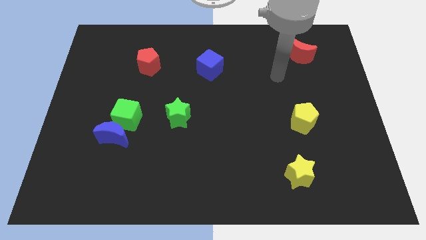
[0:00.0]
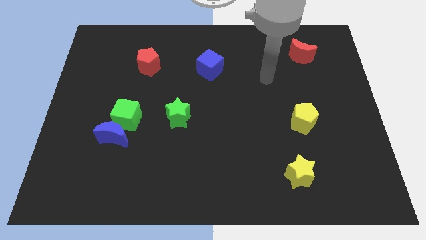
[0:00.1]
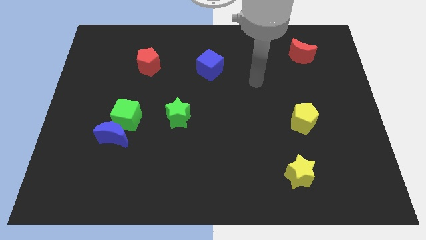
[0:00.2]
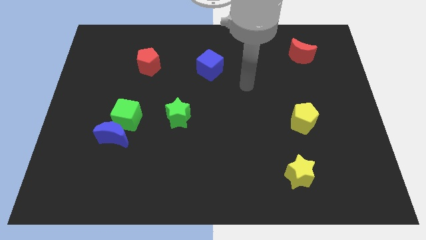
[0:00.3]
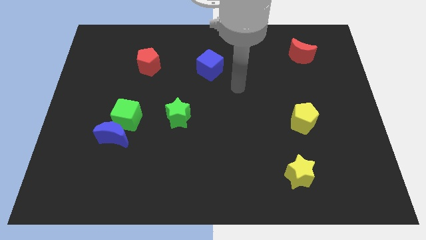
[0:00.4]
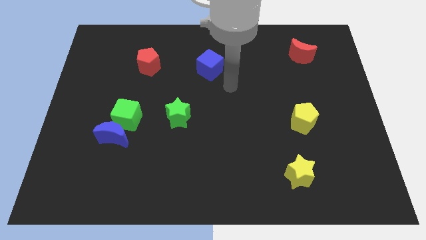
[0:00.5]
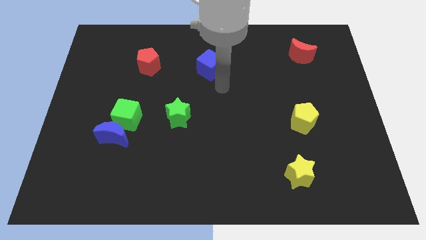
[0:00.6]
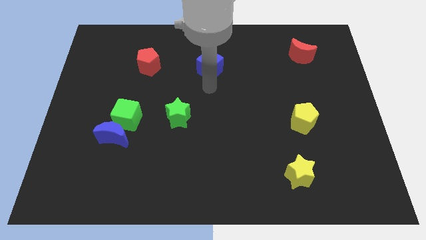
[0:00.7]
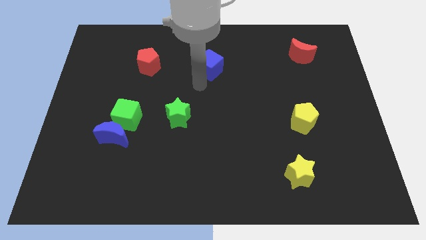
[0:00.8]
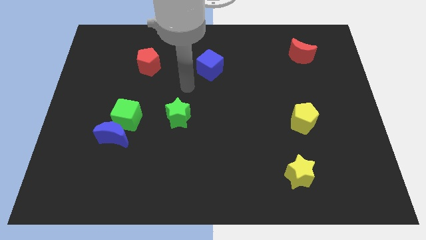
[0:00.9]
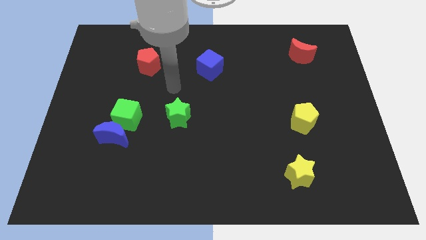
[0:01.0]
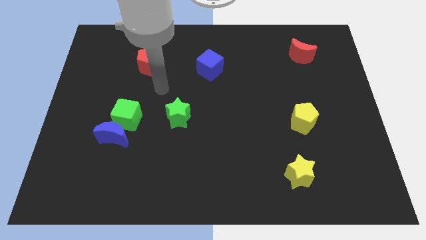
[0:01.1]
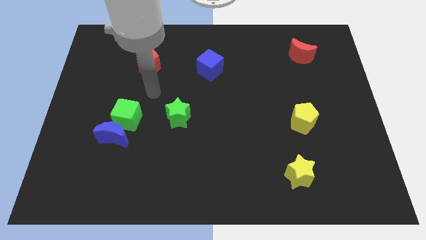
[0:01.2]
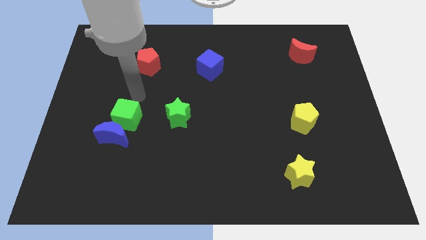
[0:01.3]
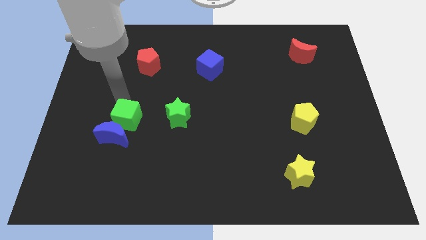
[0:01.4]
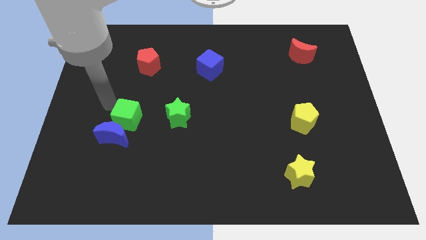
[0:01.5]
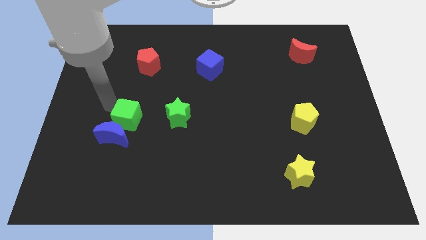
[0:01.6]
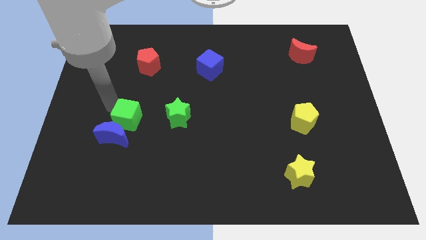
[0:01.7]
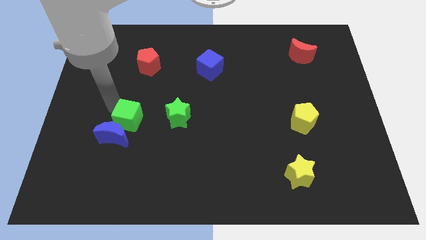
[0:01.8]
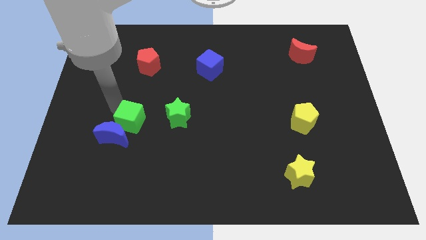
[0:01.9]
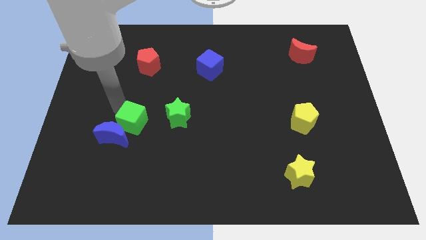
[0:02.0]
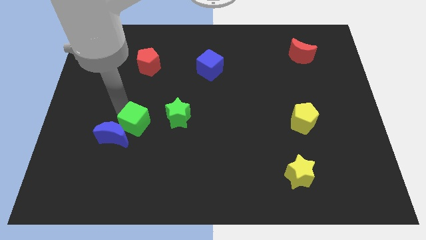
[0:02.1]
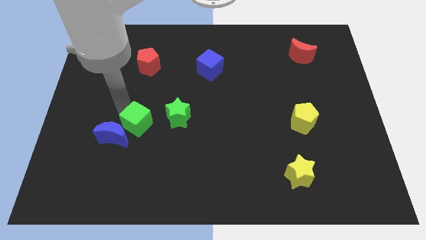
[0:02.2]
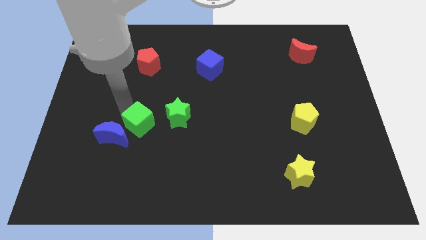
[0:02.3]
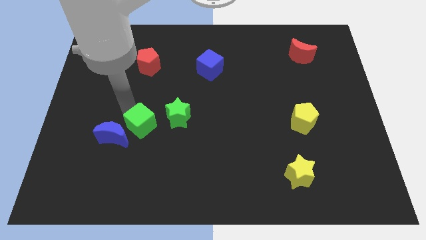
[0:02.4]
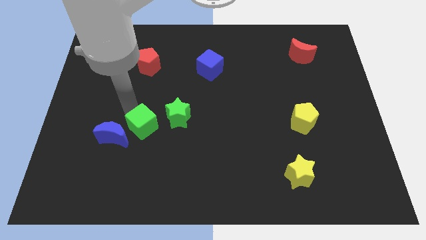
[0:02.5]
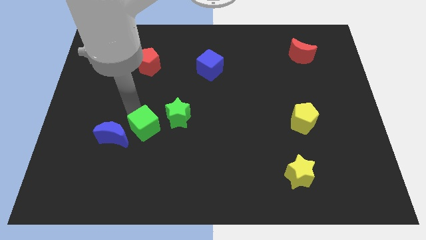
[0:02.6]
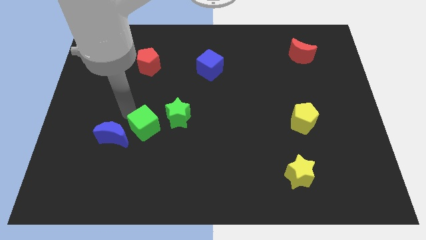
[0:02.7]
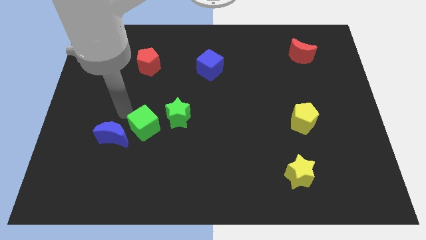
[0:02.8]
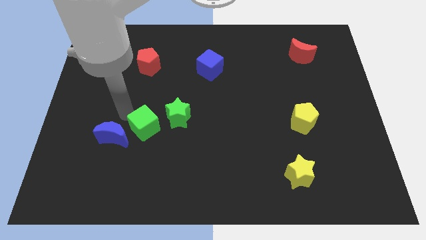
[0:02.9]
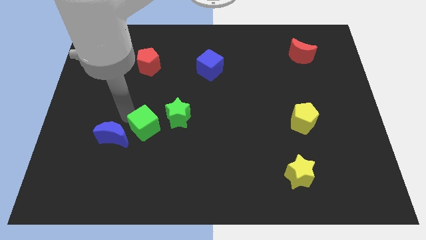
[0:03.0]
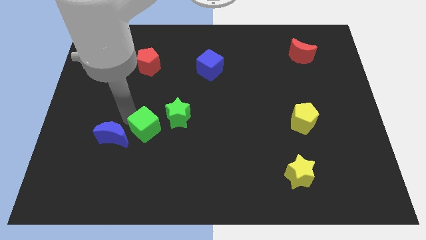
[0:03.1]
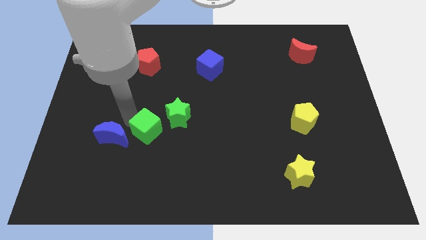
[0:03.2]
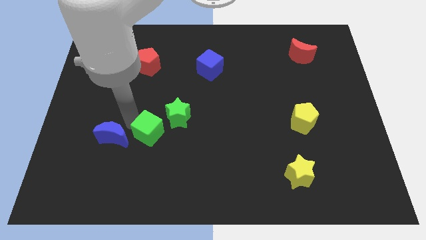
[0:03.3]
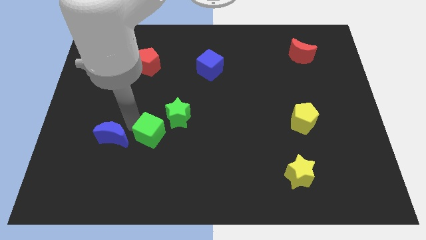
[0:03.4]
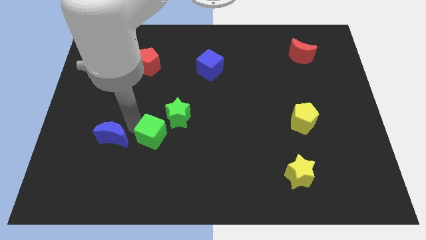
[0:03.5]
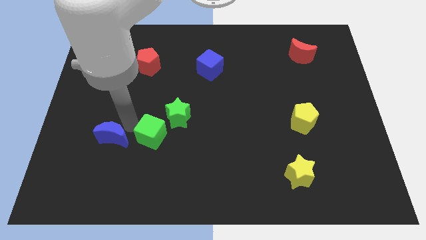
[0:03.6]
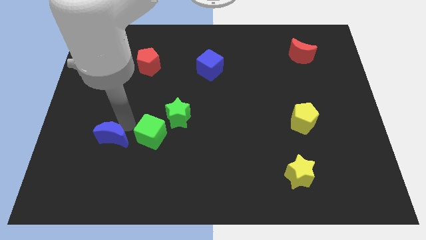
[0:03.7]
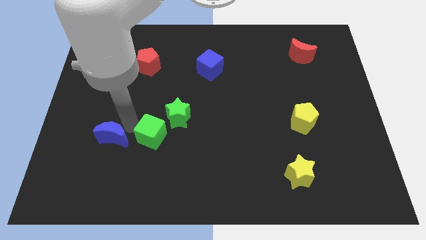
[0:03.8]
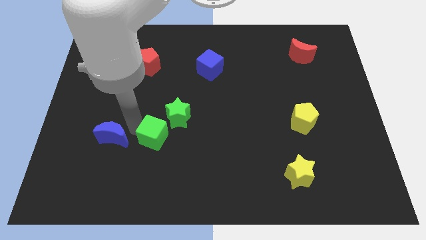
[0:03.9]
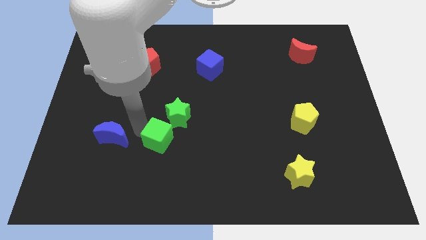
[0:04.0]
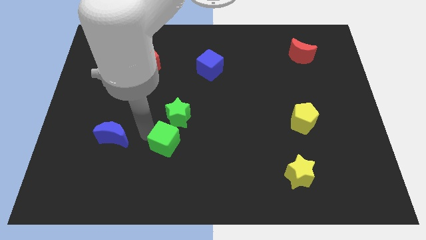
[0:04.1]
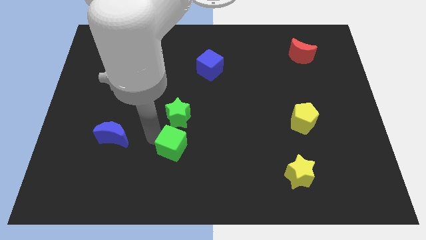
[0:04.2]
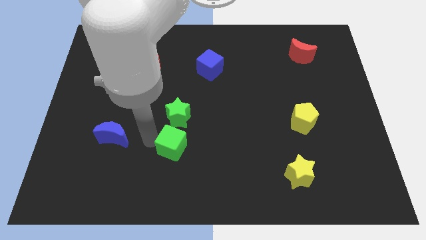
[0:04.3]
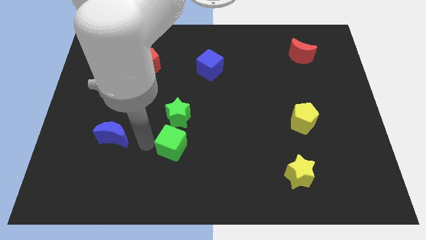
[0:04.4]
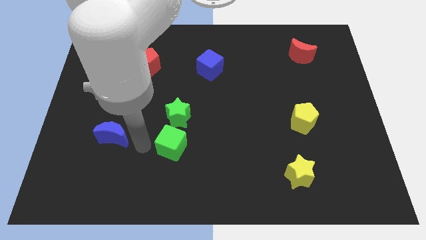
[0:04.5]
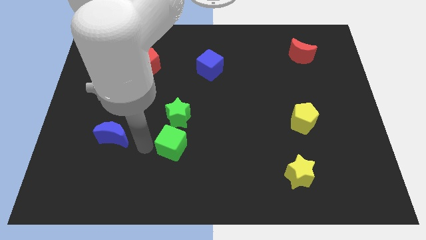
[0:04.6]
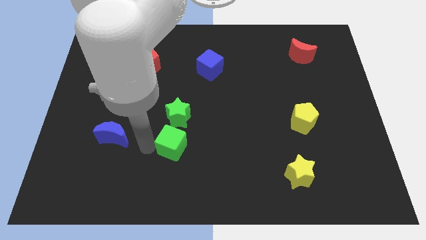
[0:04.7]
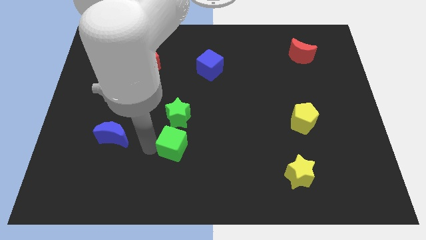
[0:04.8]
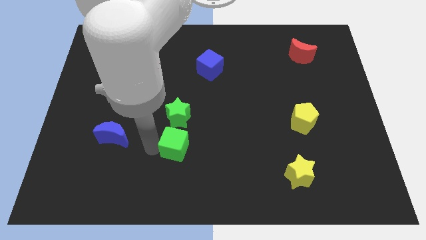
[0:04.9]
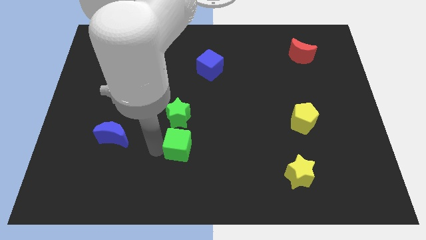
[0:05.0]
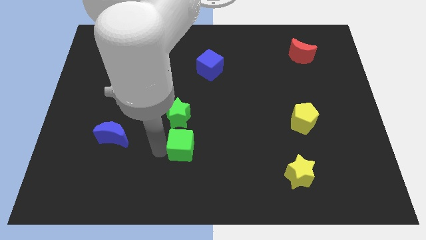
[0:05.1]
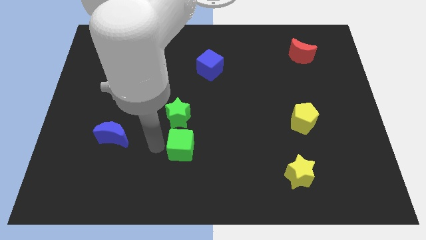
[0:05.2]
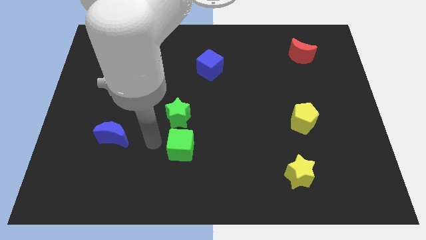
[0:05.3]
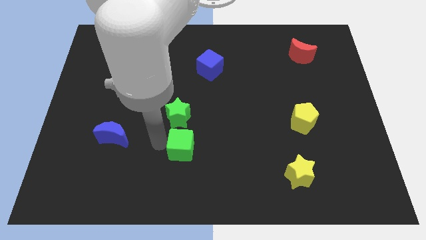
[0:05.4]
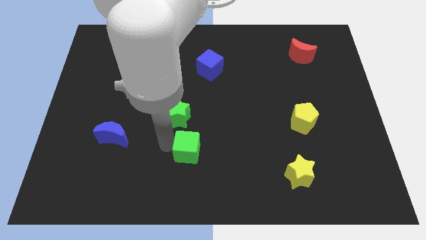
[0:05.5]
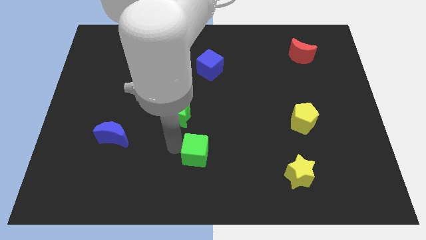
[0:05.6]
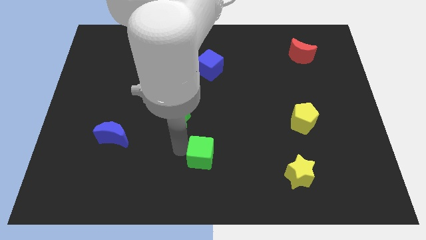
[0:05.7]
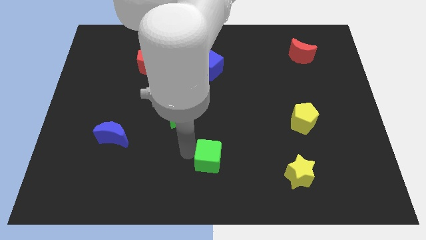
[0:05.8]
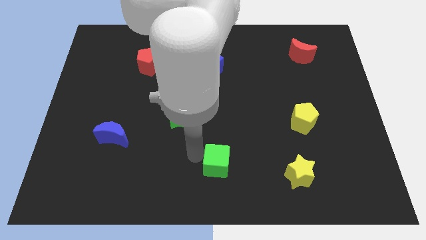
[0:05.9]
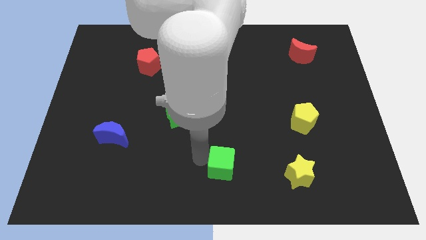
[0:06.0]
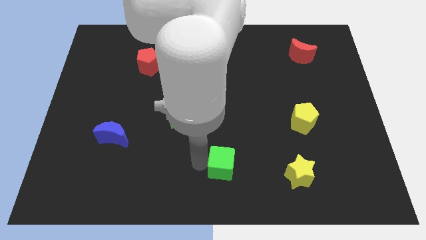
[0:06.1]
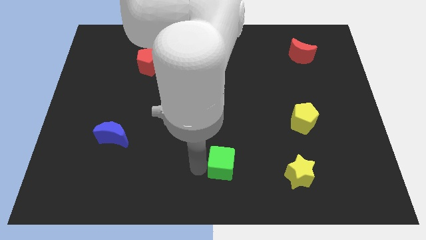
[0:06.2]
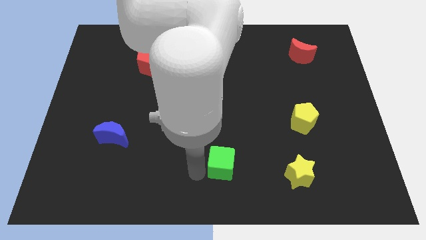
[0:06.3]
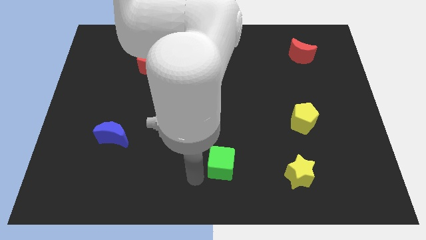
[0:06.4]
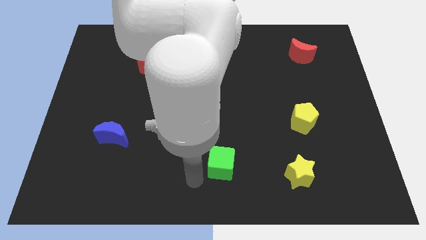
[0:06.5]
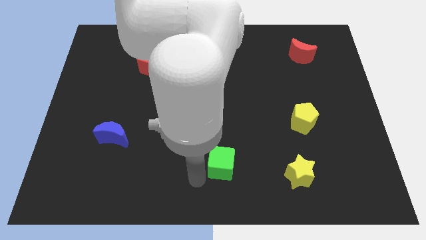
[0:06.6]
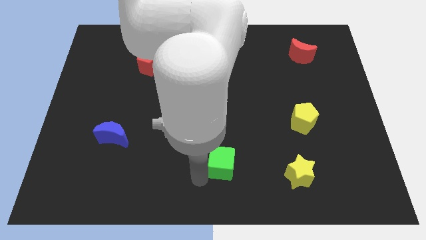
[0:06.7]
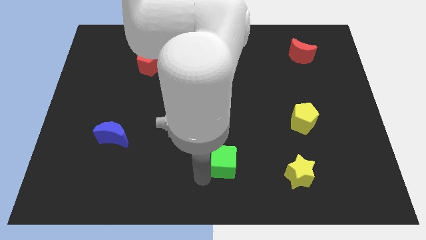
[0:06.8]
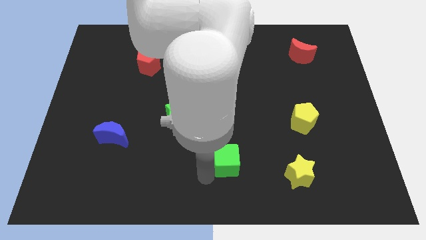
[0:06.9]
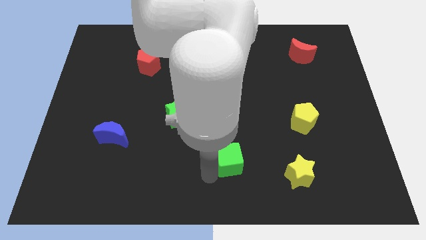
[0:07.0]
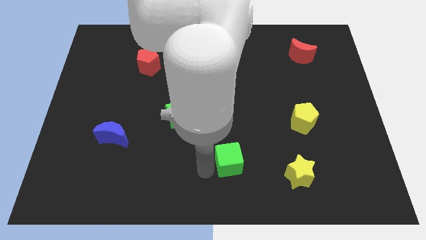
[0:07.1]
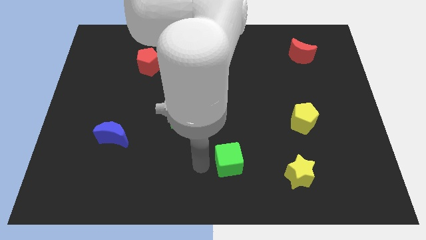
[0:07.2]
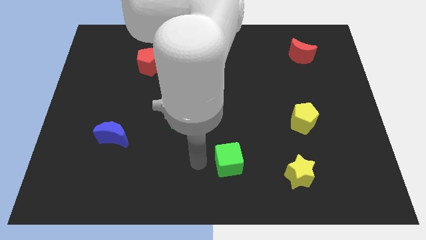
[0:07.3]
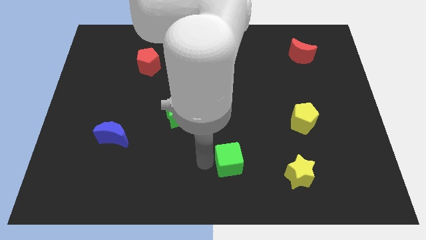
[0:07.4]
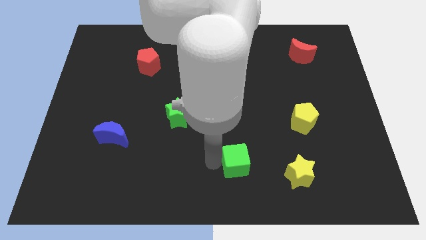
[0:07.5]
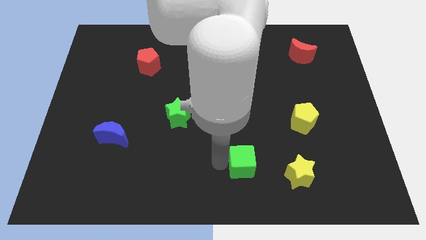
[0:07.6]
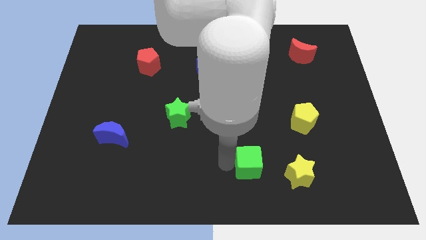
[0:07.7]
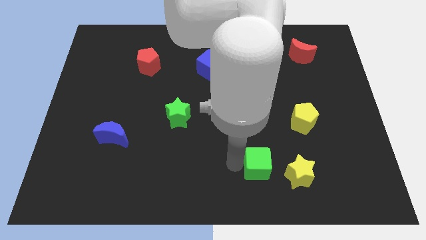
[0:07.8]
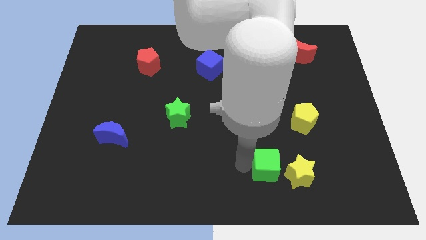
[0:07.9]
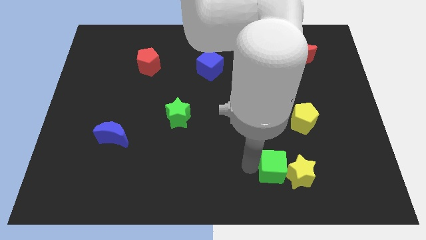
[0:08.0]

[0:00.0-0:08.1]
slide the green cube close to the yellow star

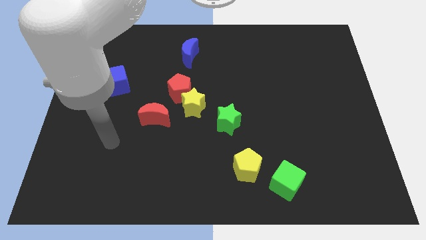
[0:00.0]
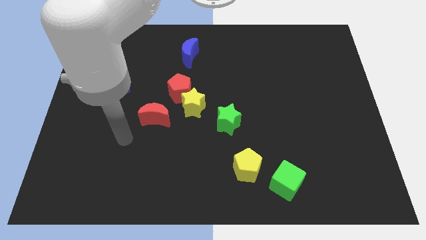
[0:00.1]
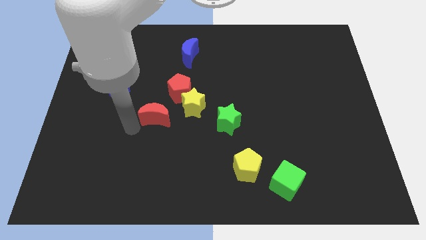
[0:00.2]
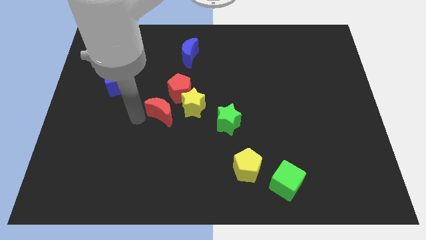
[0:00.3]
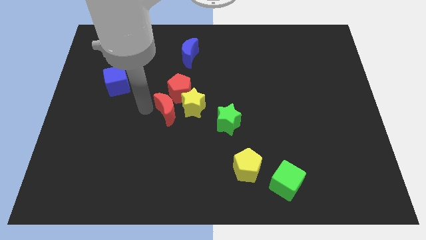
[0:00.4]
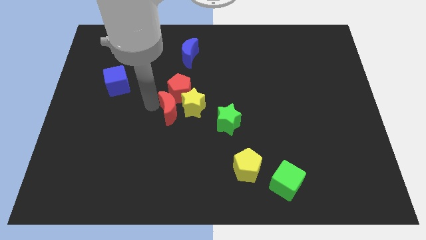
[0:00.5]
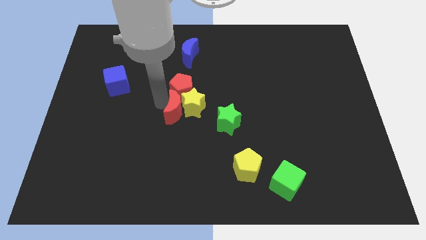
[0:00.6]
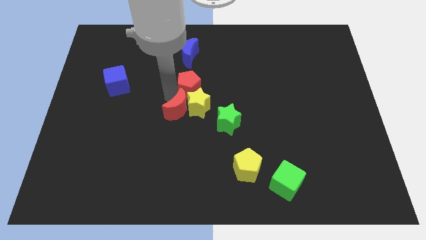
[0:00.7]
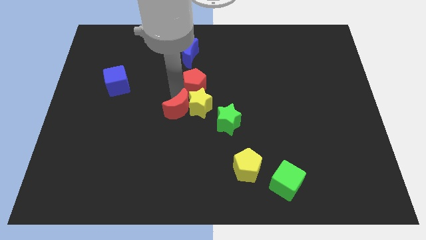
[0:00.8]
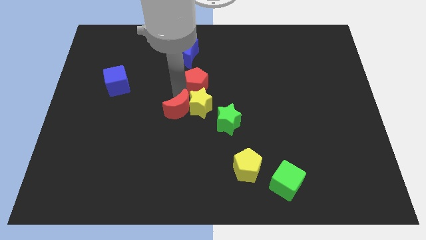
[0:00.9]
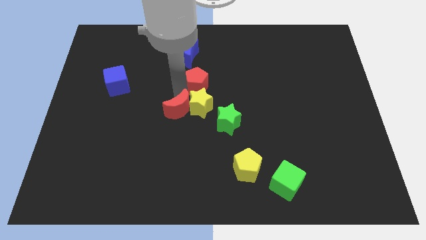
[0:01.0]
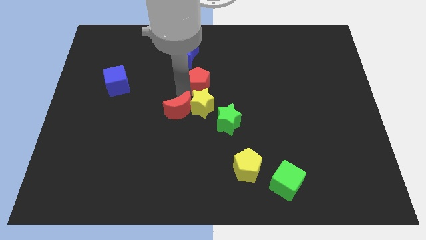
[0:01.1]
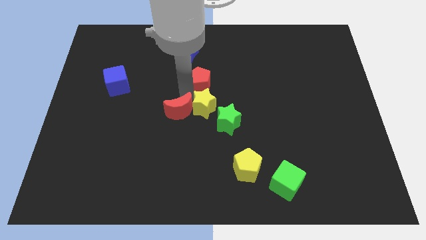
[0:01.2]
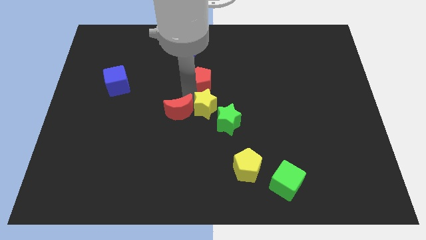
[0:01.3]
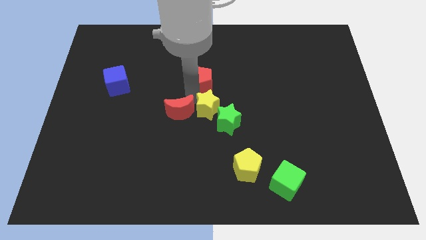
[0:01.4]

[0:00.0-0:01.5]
put the yellow star close to the green star
